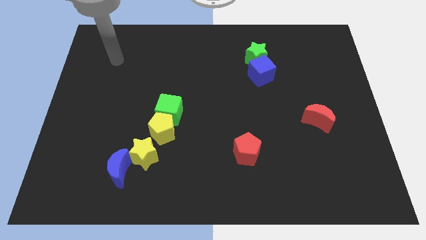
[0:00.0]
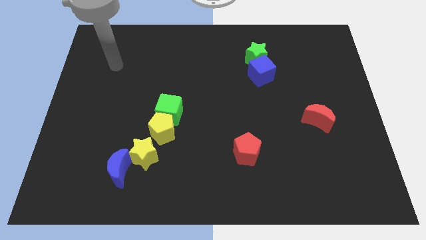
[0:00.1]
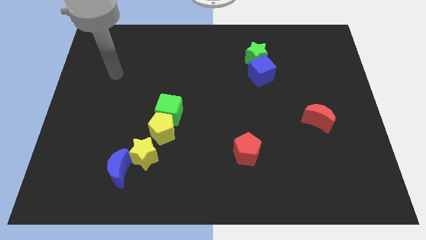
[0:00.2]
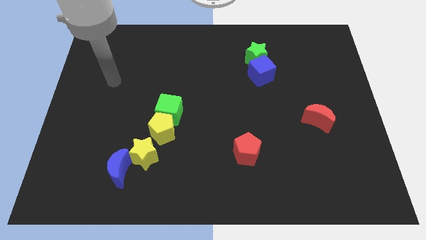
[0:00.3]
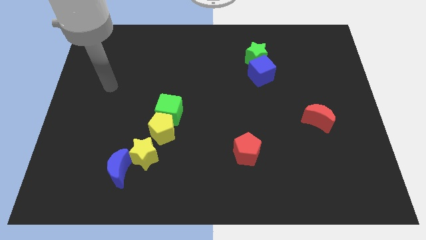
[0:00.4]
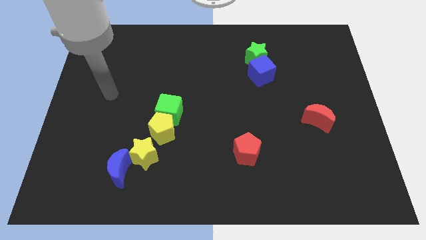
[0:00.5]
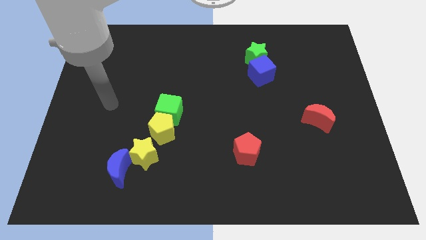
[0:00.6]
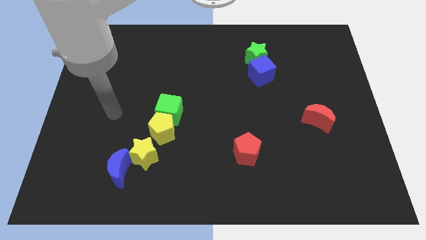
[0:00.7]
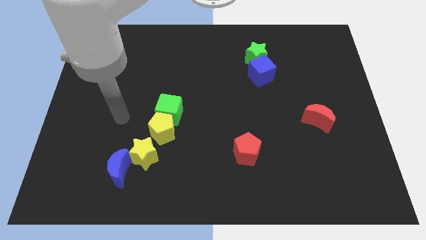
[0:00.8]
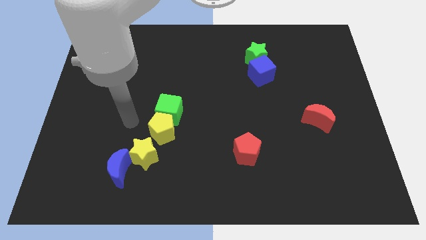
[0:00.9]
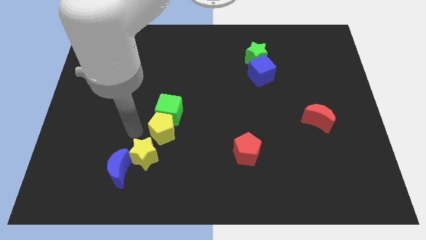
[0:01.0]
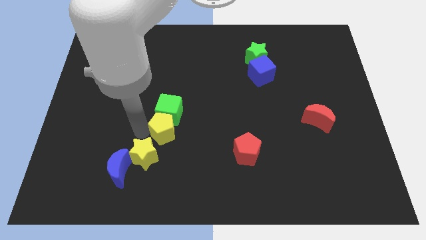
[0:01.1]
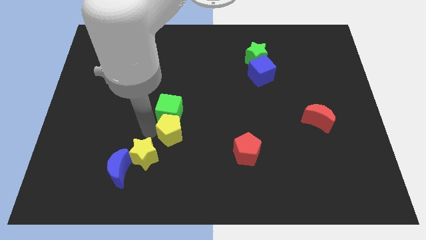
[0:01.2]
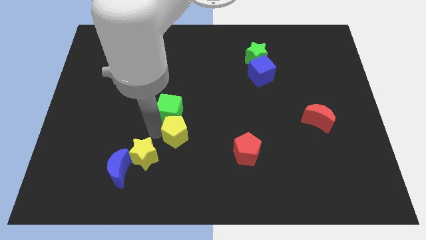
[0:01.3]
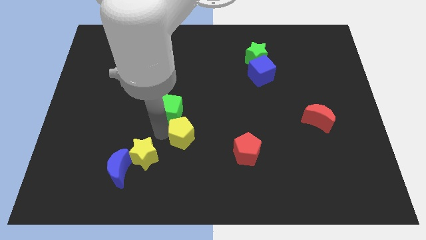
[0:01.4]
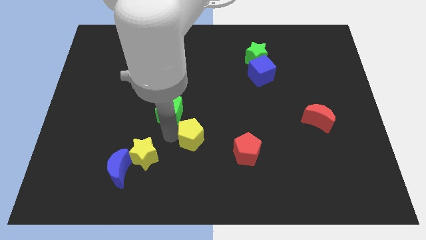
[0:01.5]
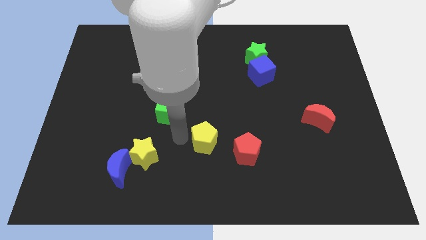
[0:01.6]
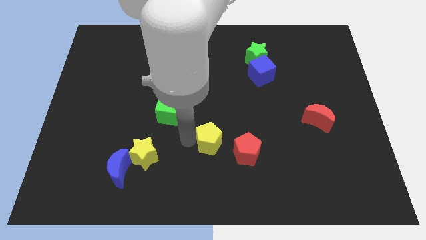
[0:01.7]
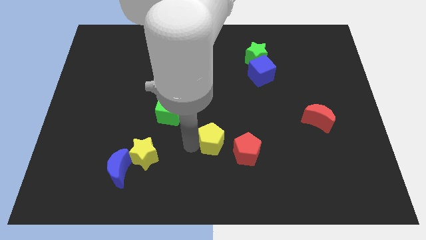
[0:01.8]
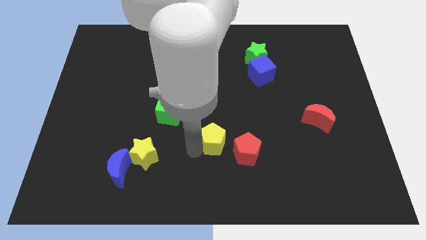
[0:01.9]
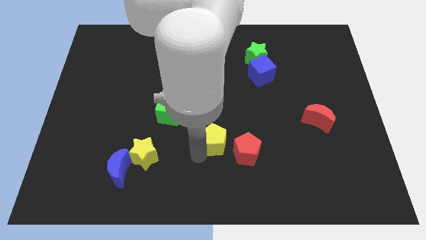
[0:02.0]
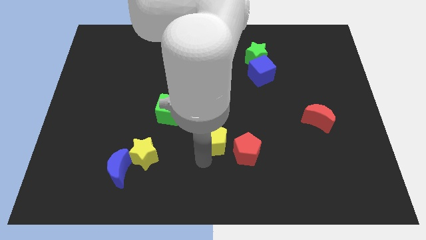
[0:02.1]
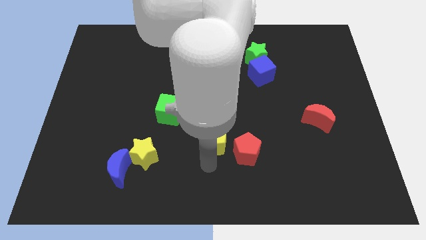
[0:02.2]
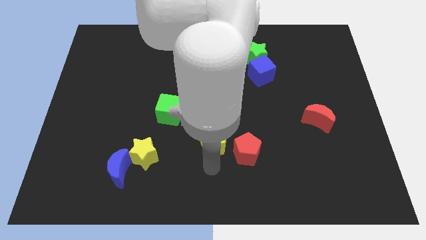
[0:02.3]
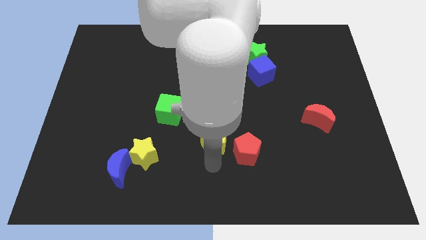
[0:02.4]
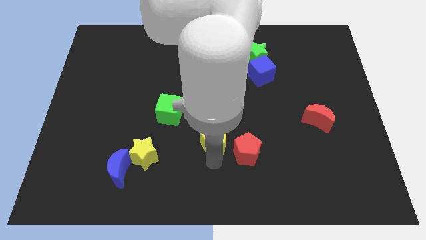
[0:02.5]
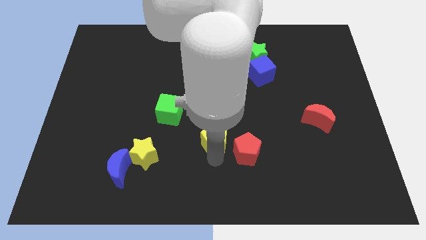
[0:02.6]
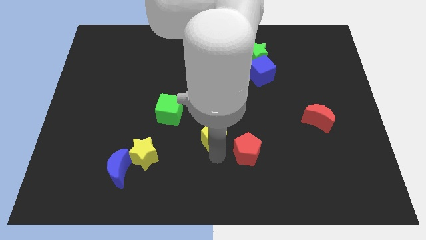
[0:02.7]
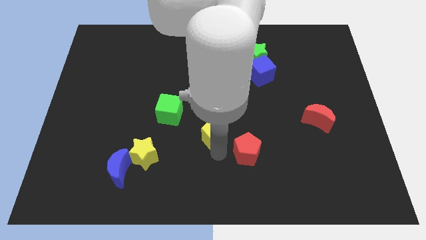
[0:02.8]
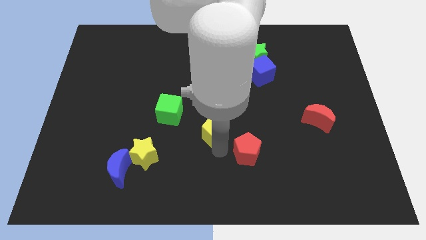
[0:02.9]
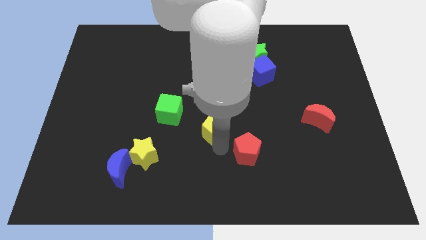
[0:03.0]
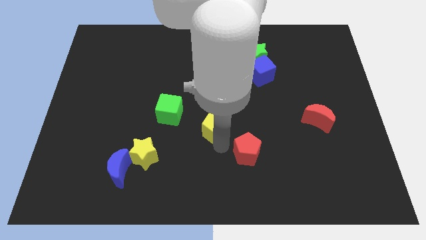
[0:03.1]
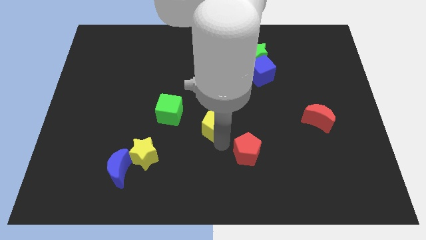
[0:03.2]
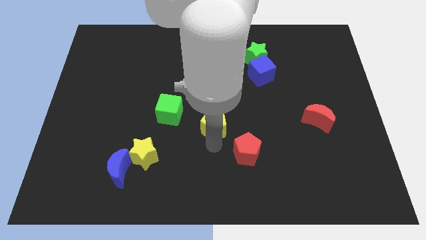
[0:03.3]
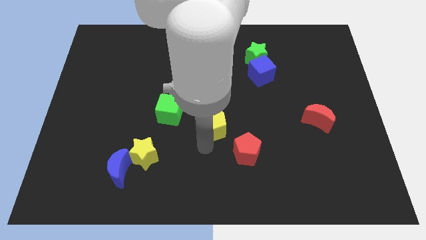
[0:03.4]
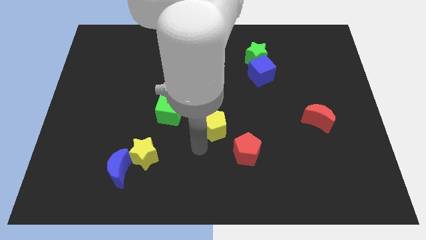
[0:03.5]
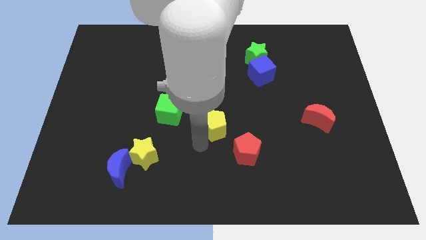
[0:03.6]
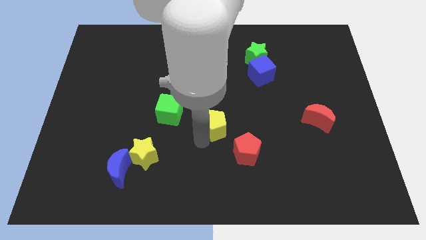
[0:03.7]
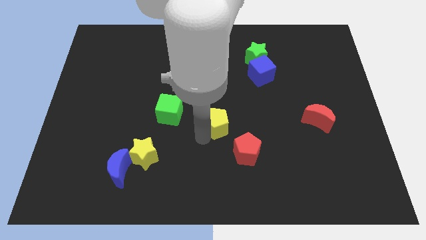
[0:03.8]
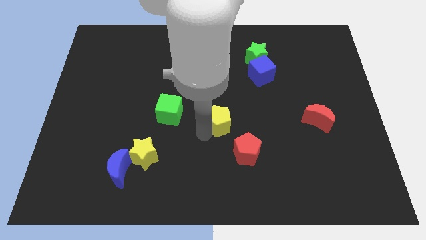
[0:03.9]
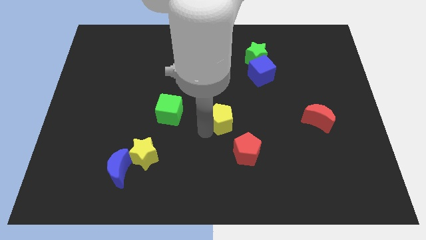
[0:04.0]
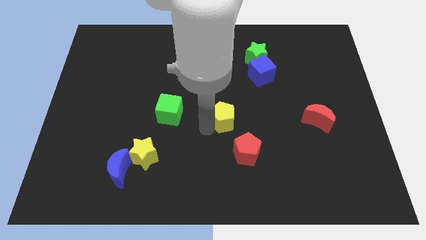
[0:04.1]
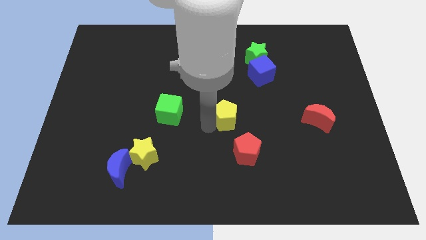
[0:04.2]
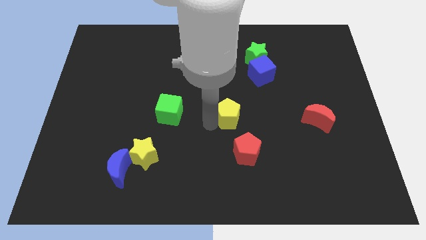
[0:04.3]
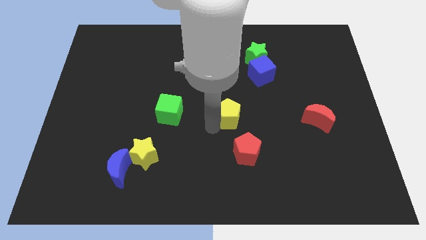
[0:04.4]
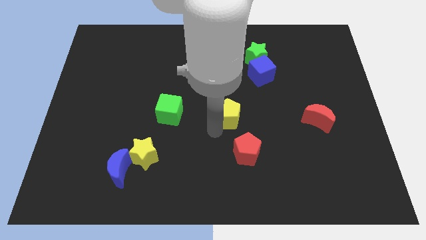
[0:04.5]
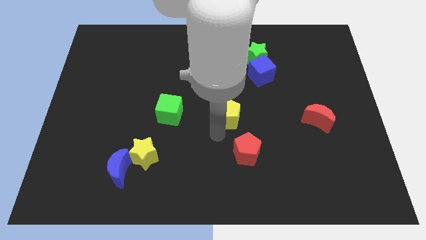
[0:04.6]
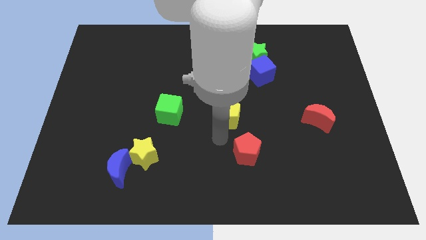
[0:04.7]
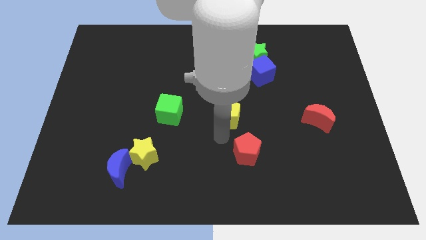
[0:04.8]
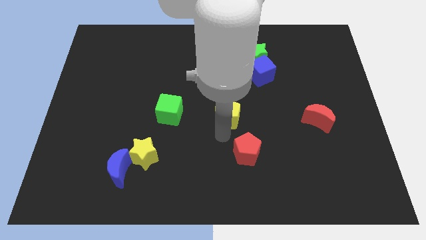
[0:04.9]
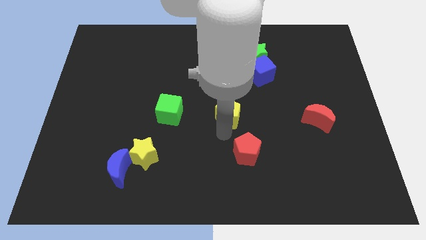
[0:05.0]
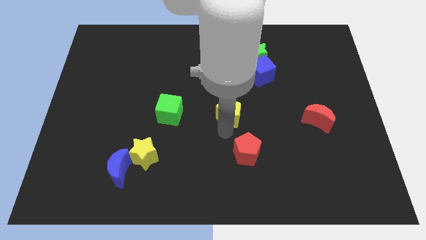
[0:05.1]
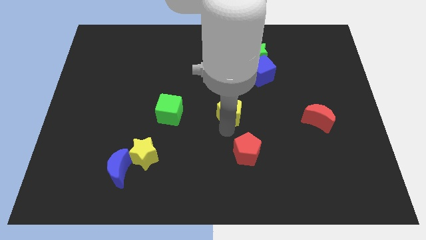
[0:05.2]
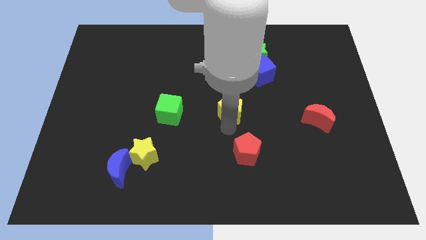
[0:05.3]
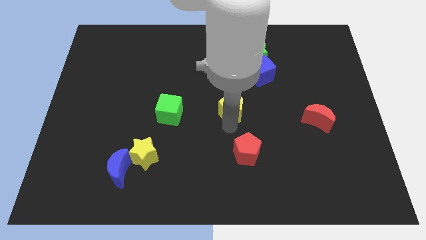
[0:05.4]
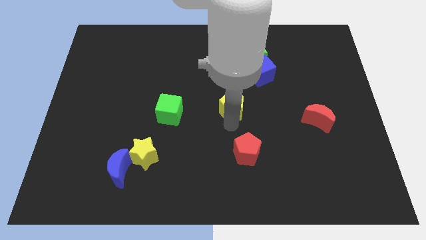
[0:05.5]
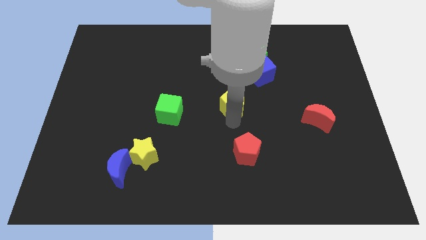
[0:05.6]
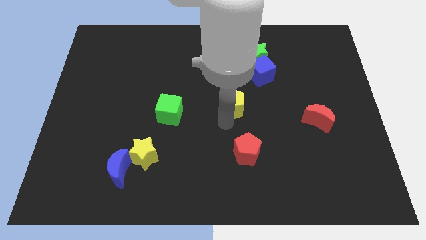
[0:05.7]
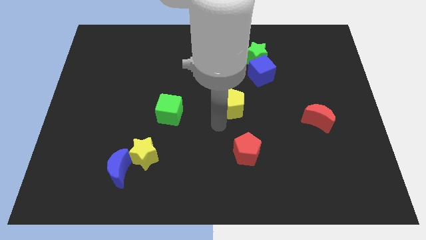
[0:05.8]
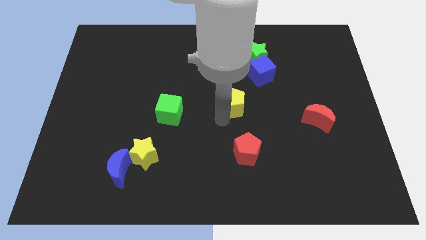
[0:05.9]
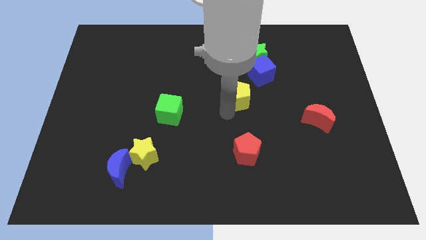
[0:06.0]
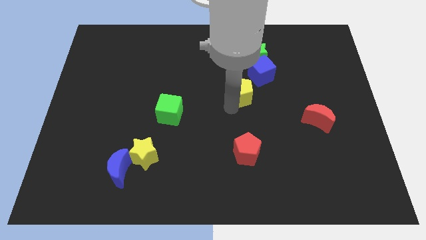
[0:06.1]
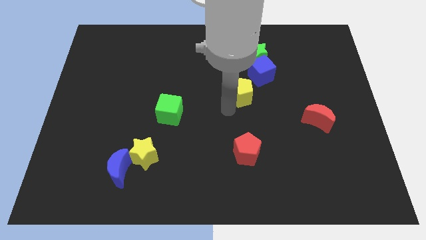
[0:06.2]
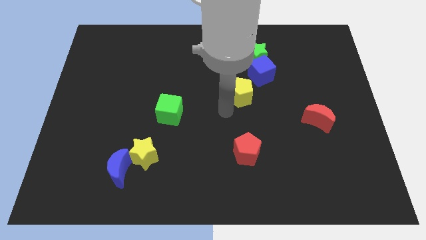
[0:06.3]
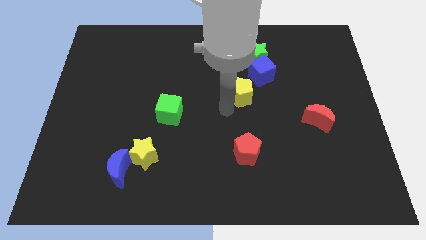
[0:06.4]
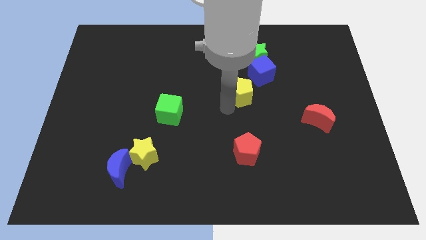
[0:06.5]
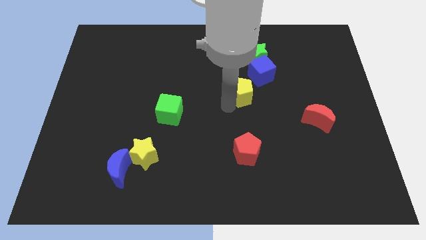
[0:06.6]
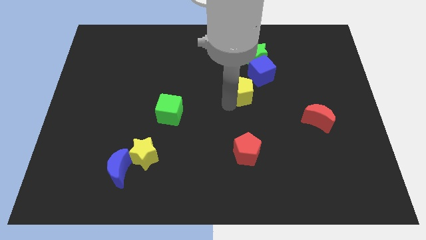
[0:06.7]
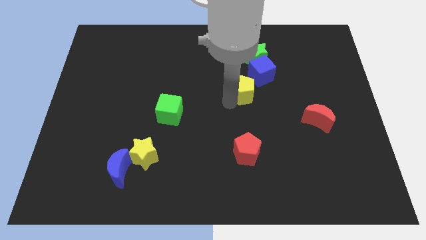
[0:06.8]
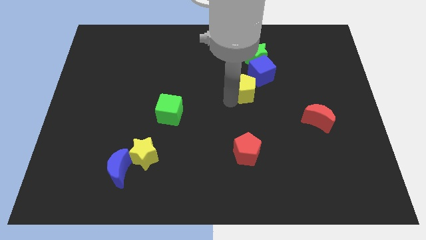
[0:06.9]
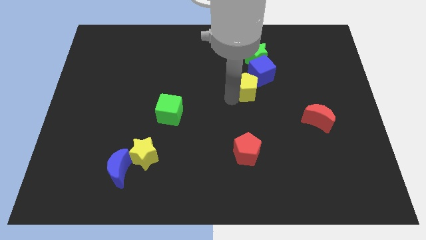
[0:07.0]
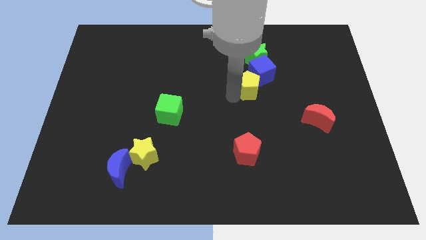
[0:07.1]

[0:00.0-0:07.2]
slide the yellow pentagon close to the blue cube
